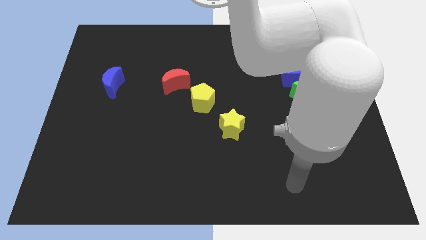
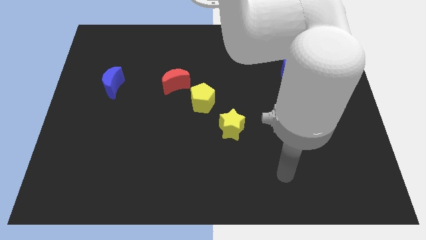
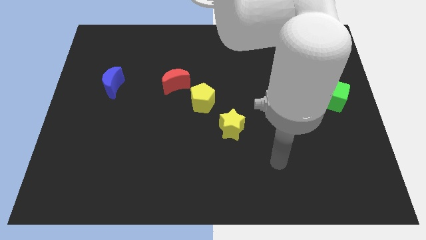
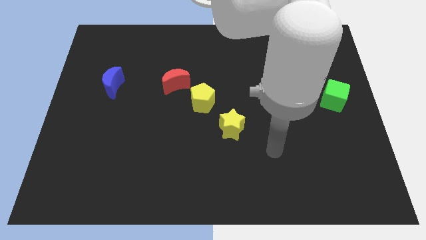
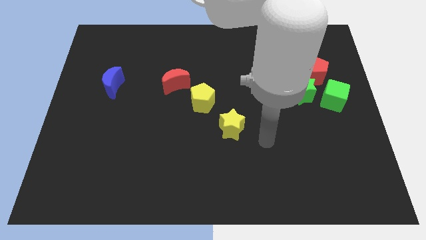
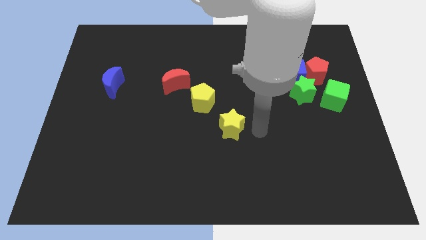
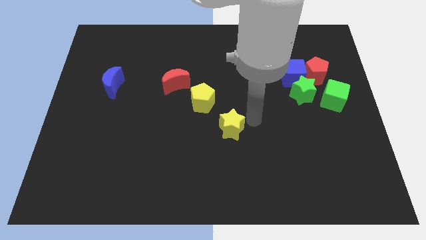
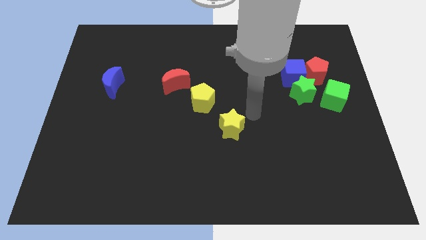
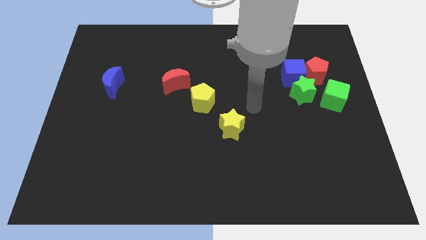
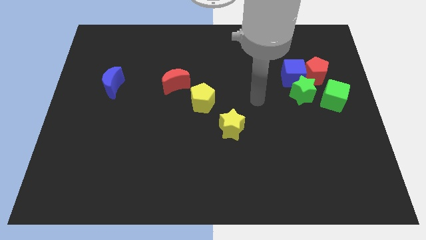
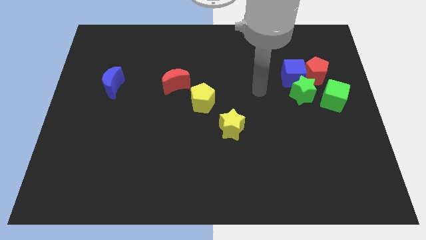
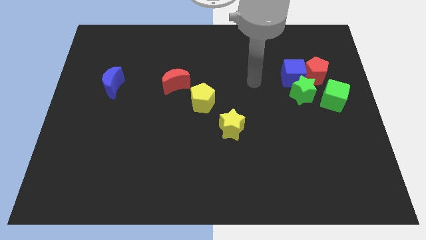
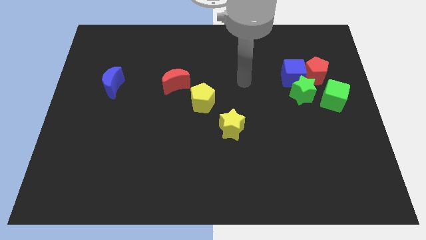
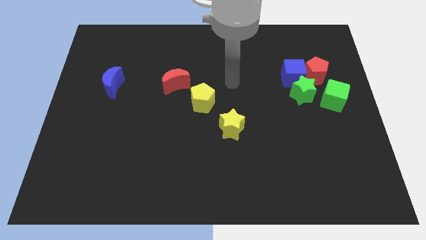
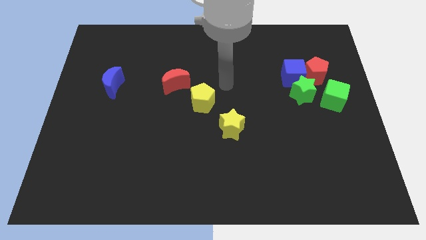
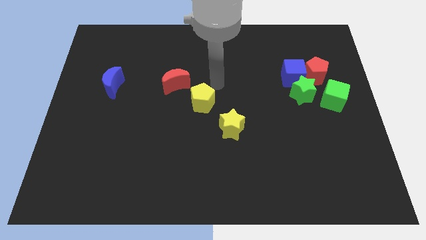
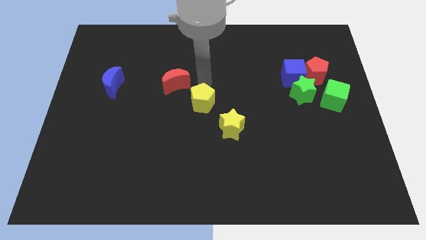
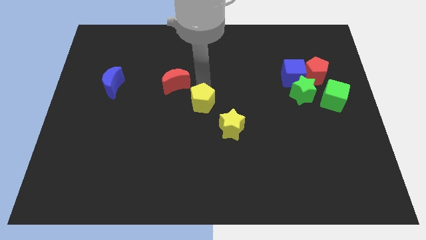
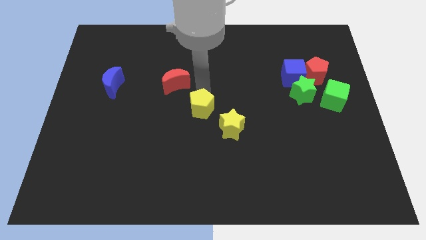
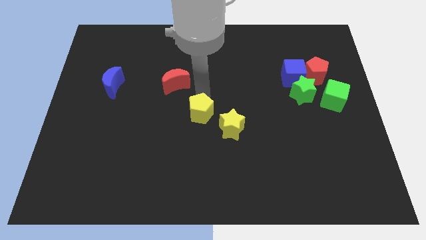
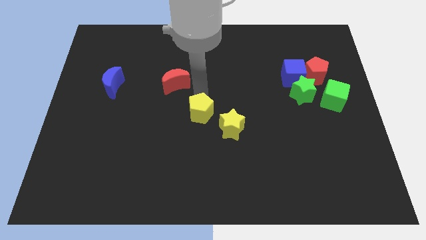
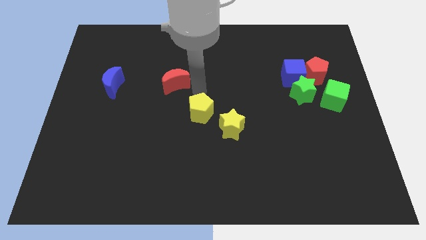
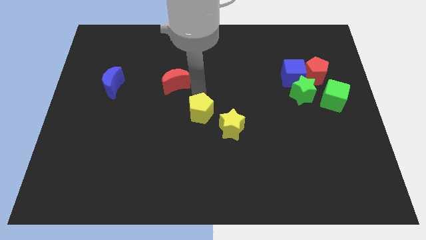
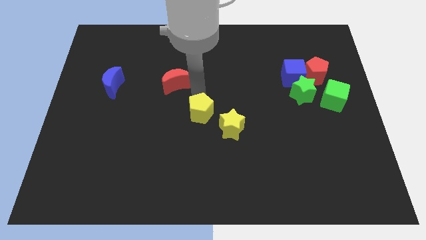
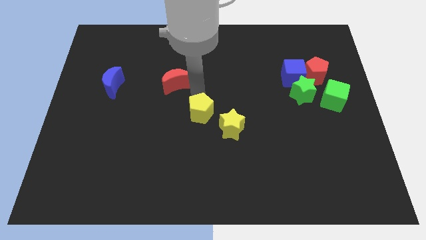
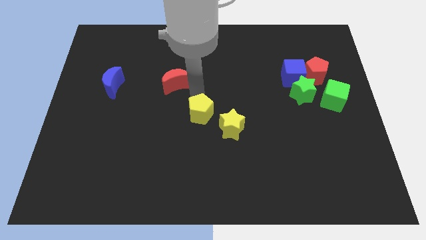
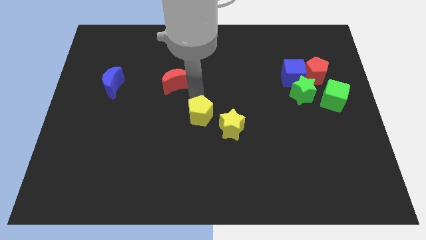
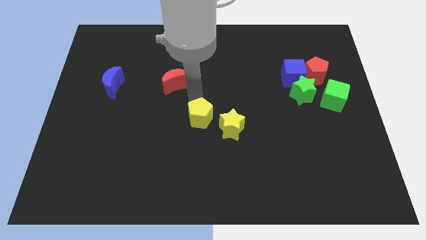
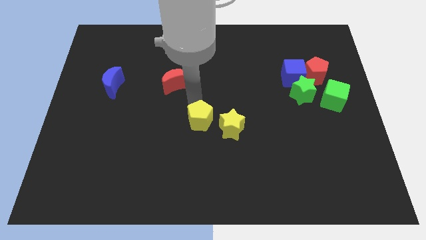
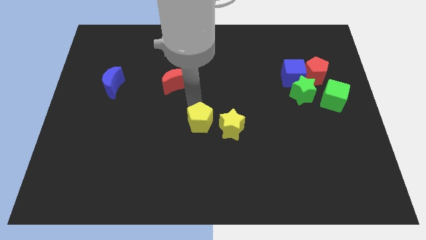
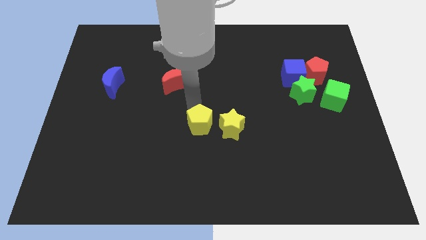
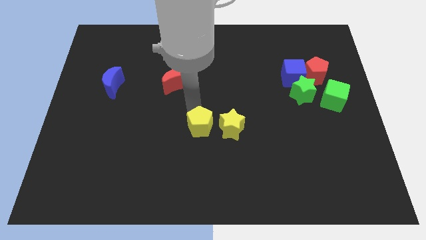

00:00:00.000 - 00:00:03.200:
move the yellow pentagon a bit downwards

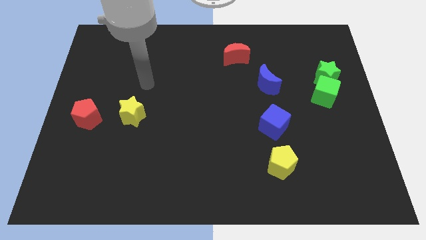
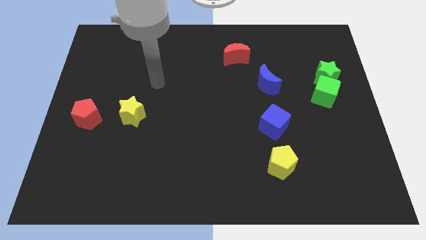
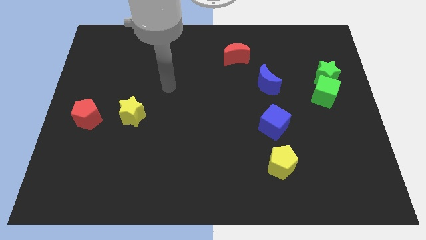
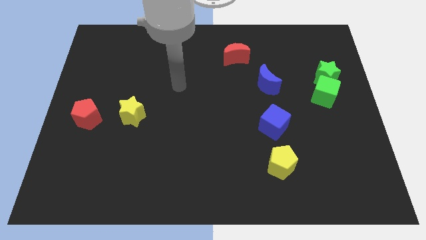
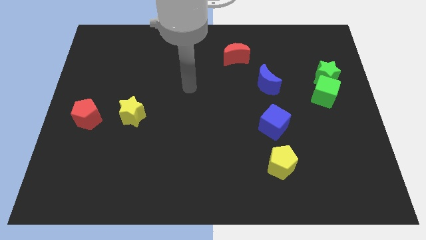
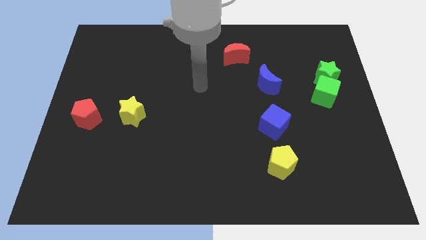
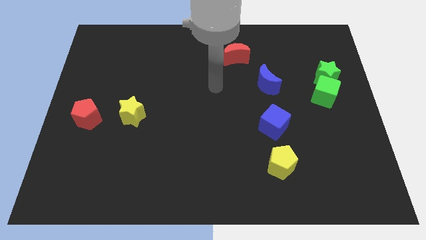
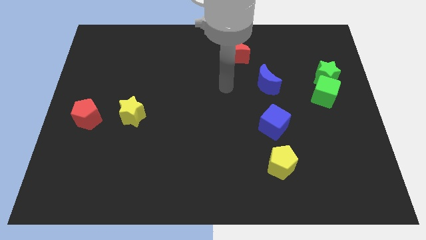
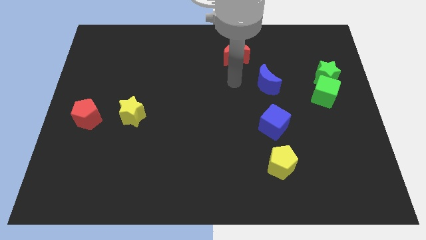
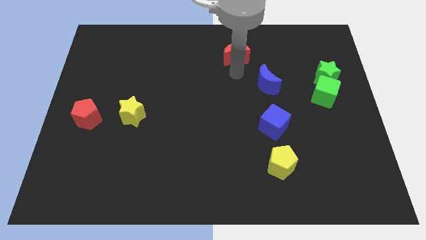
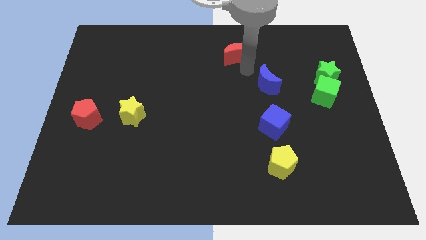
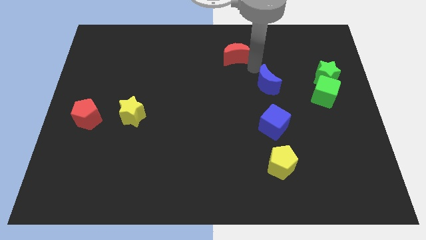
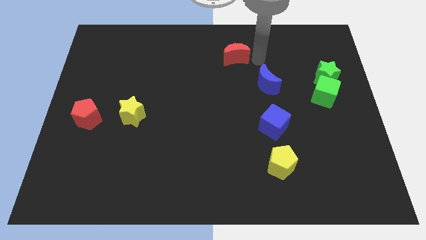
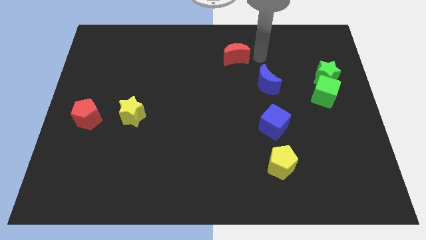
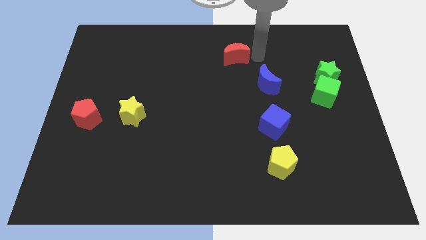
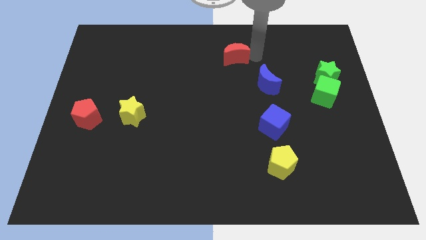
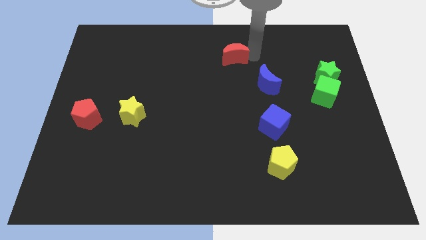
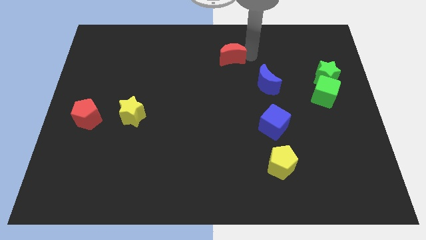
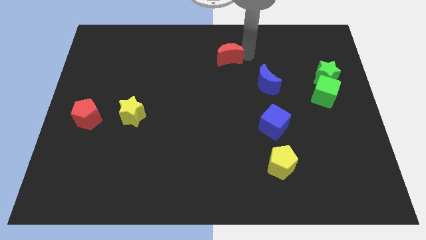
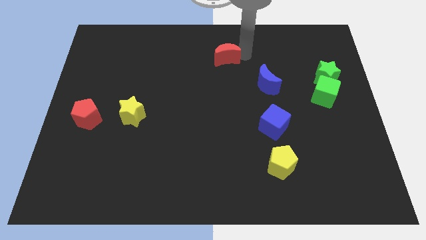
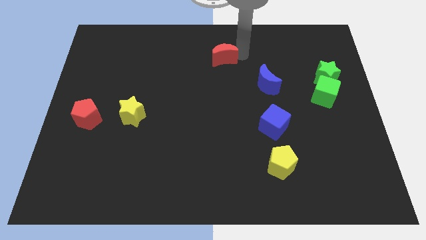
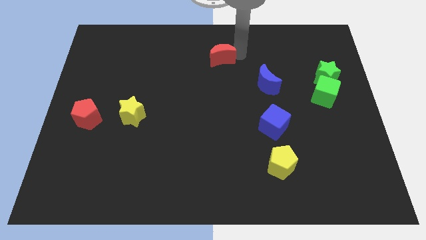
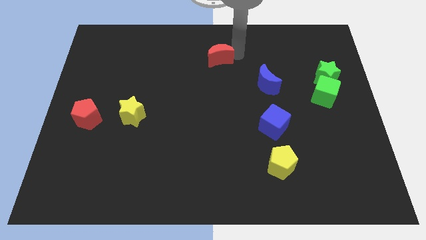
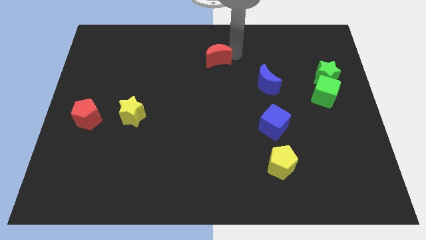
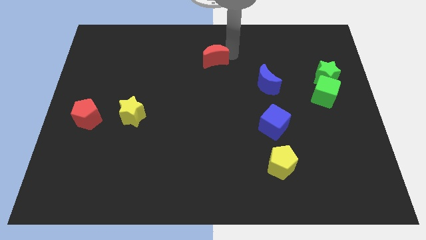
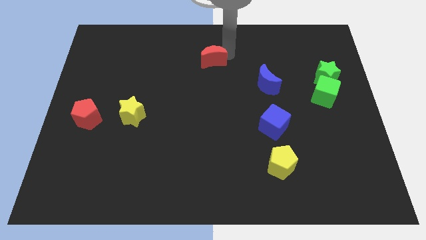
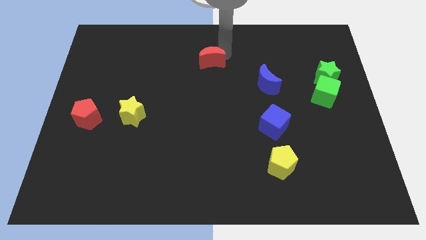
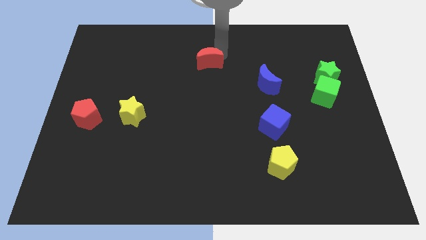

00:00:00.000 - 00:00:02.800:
push the red moon to the left a little

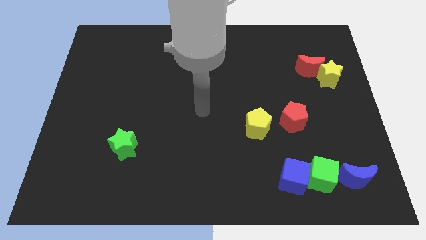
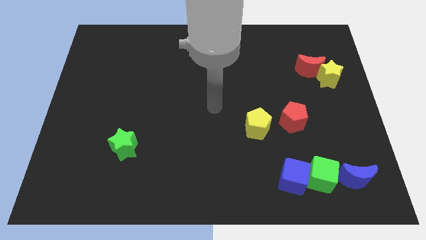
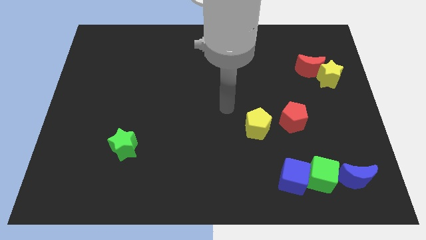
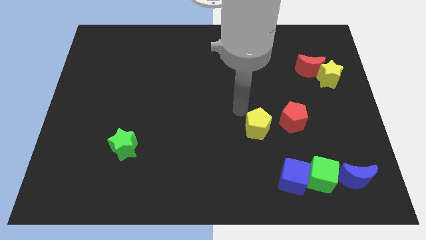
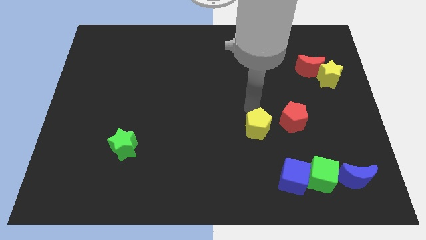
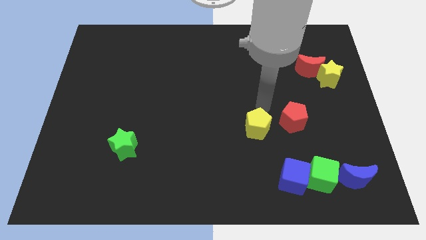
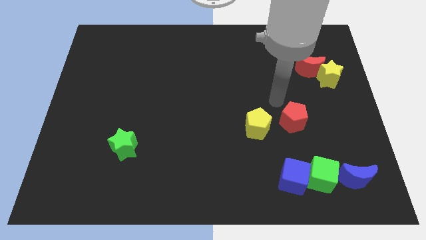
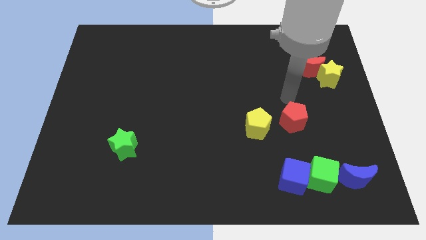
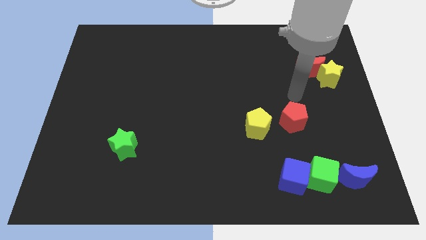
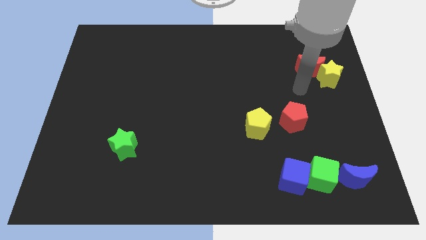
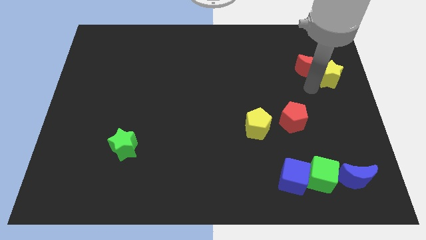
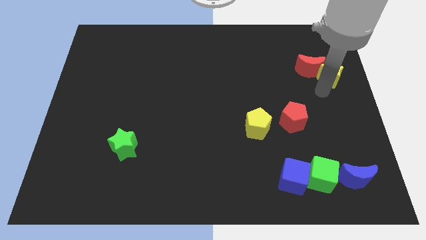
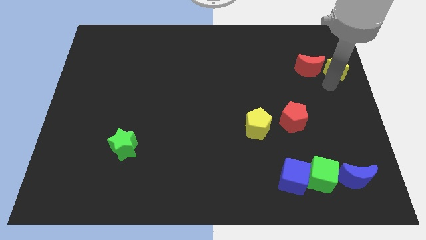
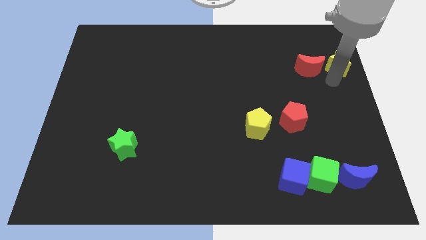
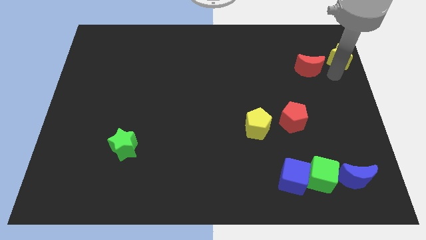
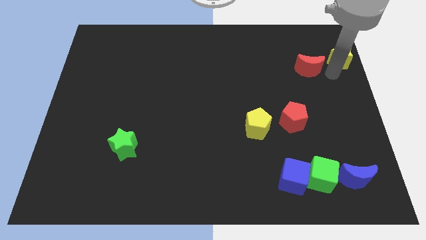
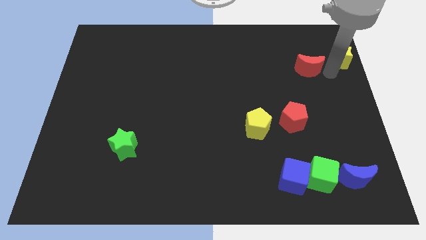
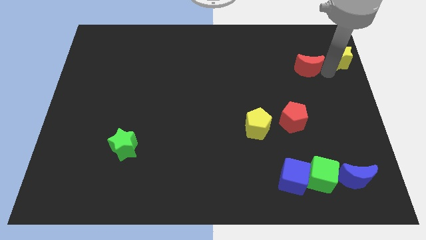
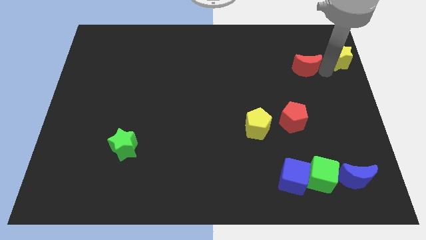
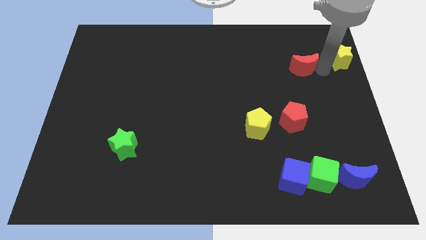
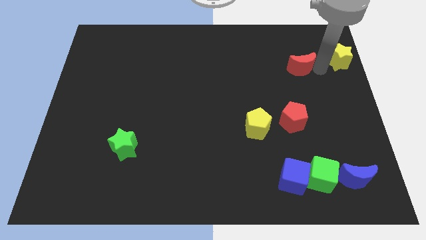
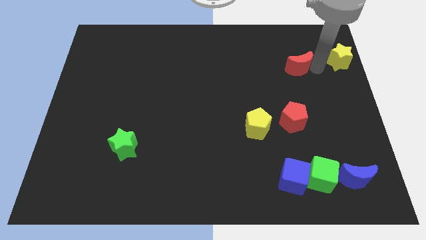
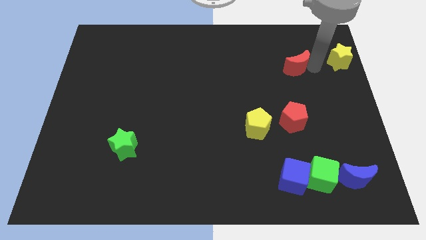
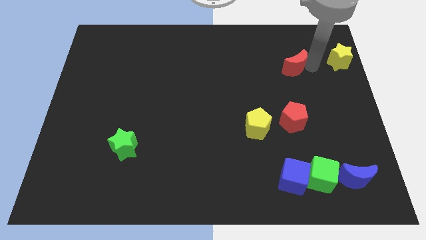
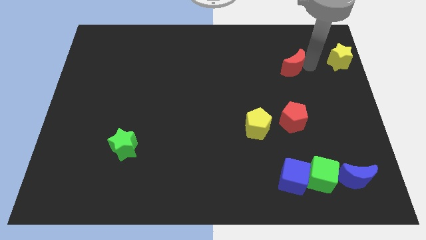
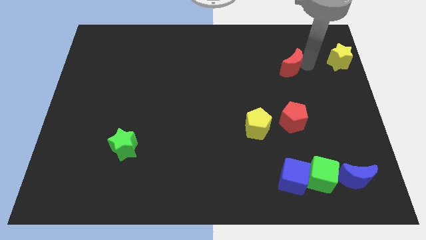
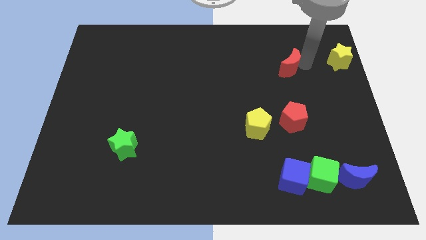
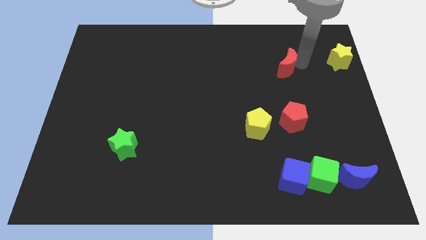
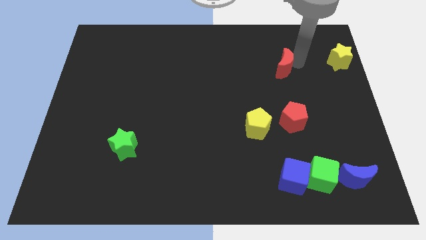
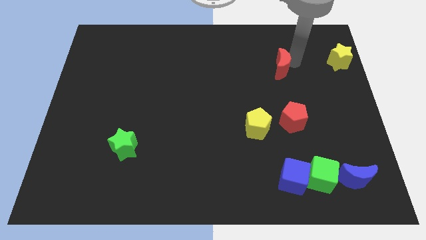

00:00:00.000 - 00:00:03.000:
push the red moon a little to the left
